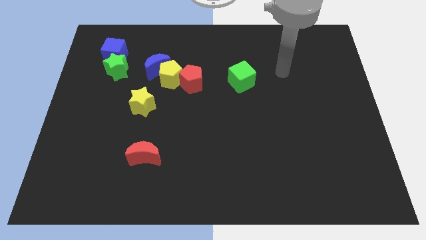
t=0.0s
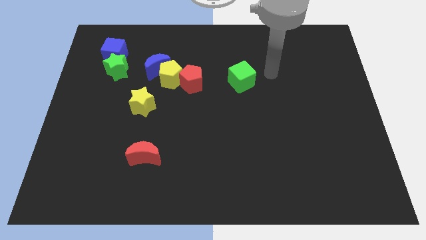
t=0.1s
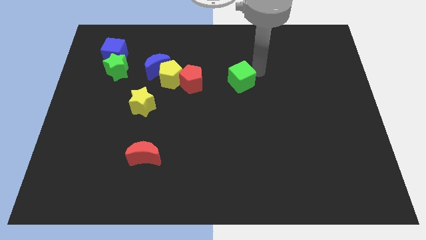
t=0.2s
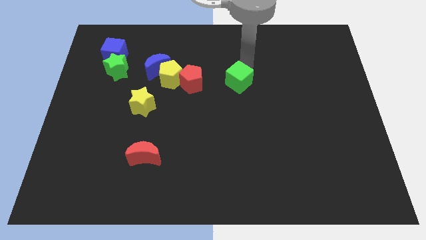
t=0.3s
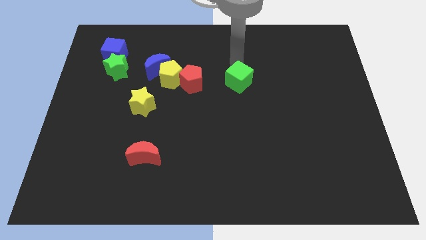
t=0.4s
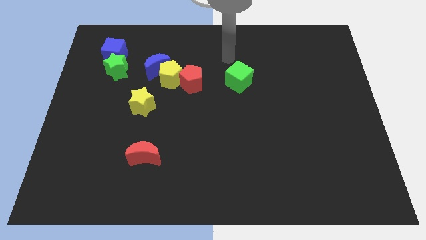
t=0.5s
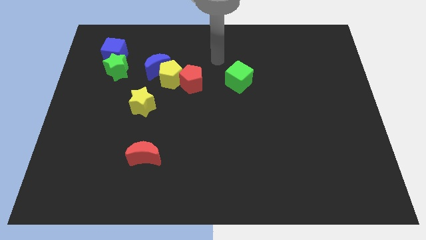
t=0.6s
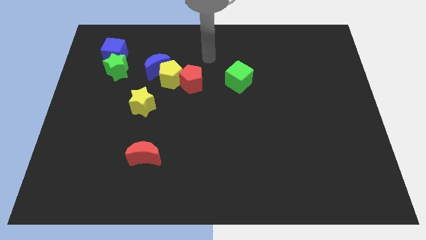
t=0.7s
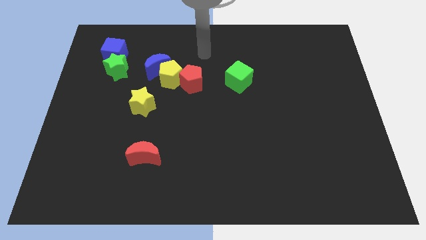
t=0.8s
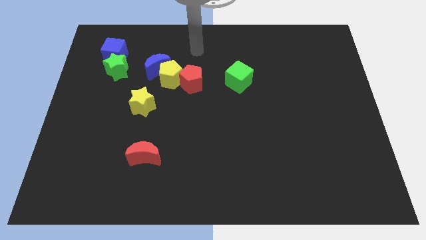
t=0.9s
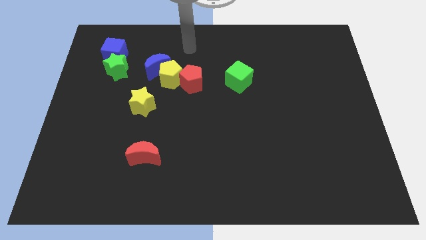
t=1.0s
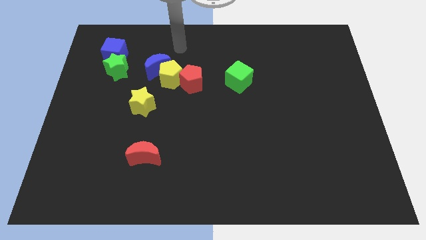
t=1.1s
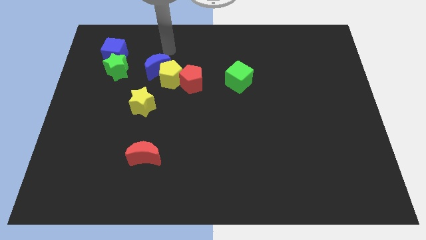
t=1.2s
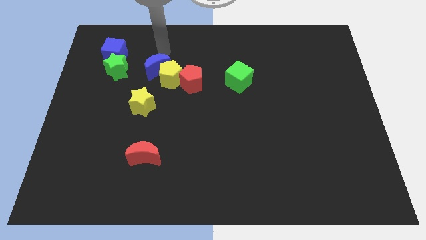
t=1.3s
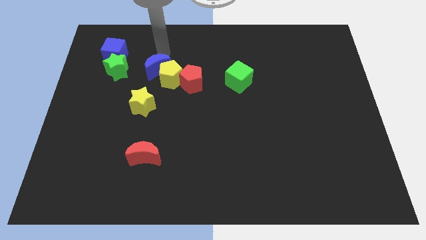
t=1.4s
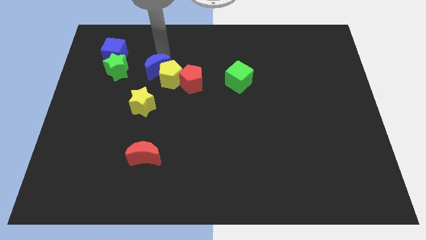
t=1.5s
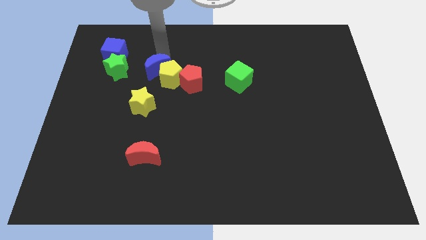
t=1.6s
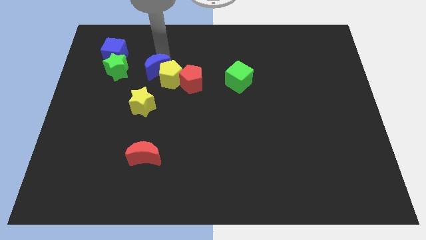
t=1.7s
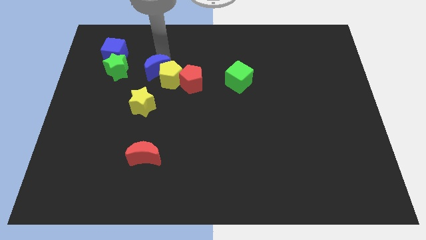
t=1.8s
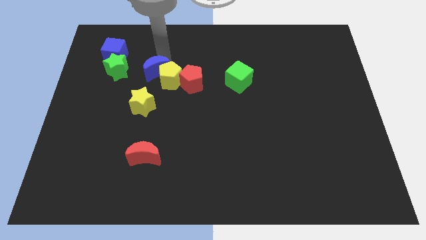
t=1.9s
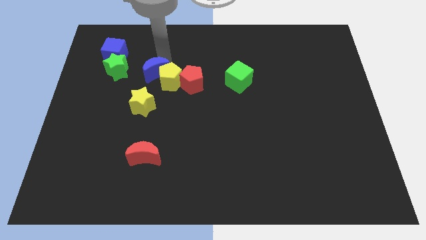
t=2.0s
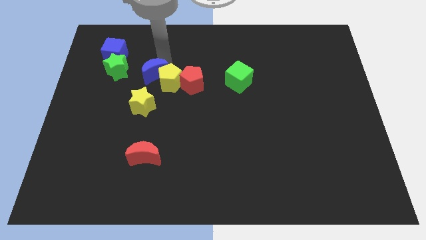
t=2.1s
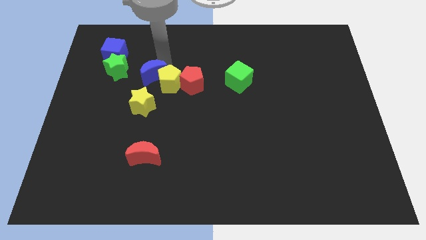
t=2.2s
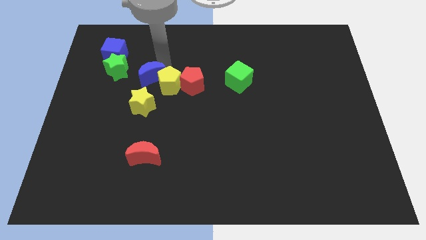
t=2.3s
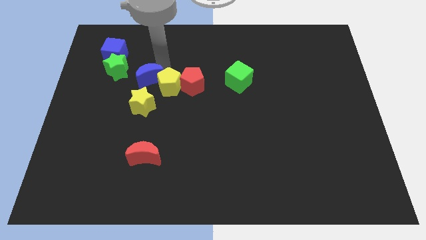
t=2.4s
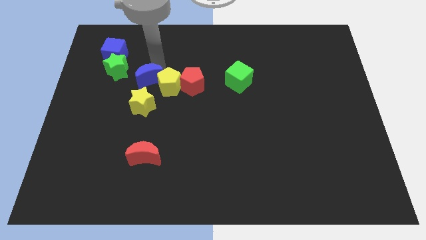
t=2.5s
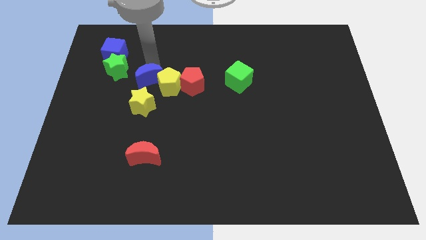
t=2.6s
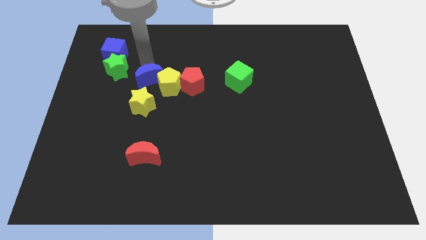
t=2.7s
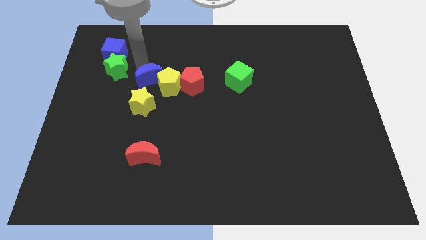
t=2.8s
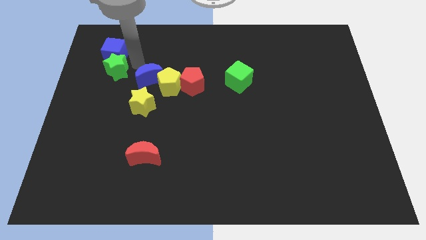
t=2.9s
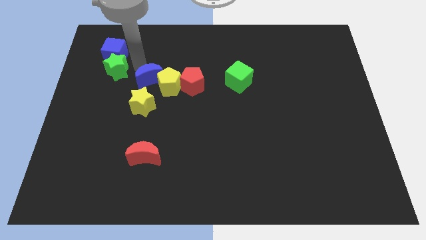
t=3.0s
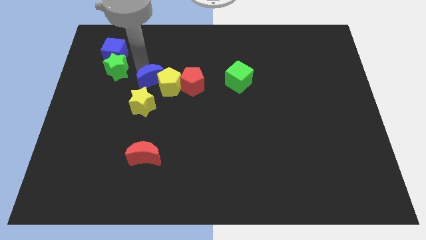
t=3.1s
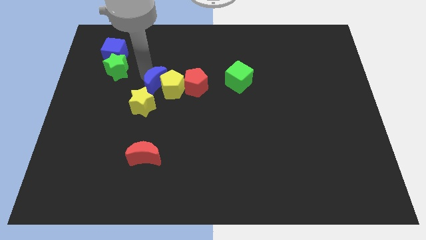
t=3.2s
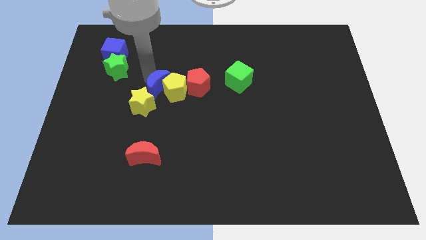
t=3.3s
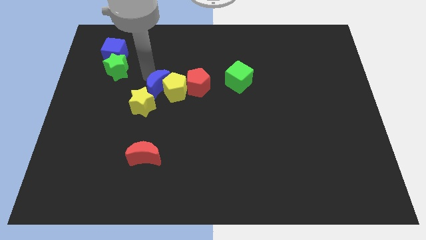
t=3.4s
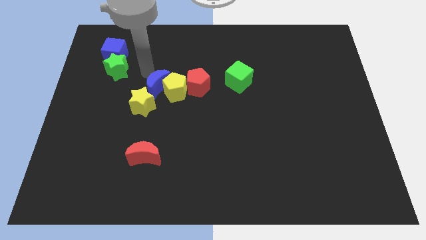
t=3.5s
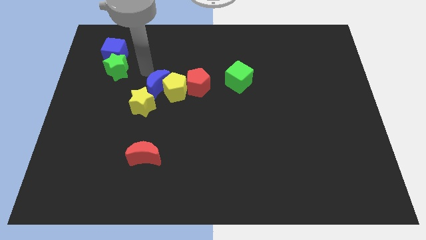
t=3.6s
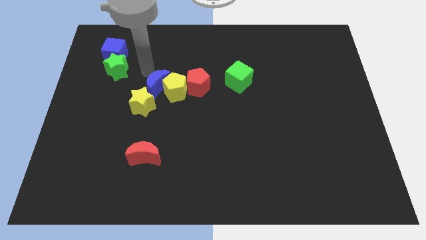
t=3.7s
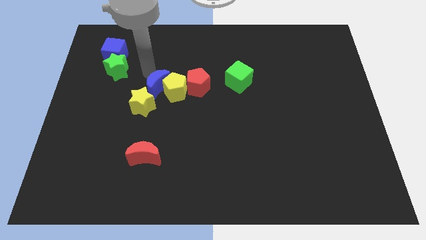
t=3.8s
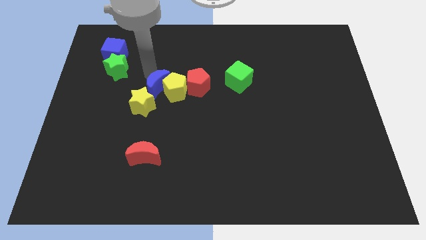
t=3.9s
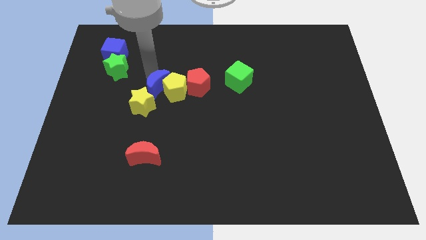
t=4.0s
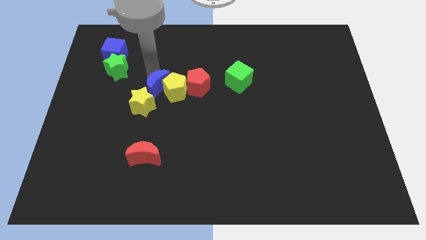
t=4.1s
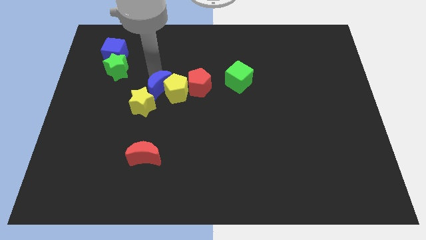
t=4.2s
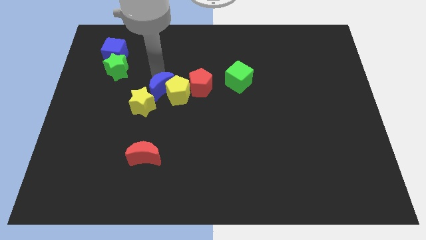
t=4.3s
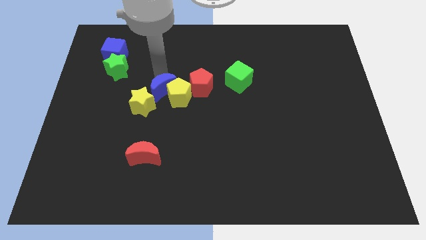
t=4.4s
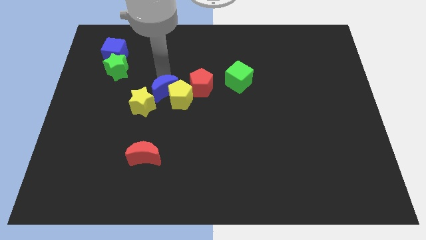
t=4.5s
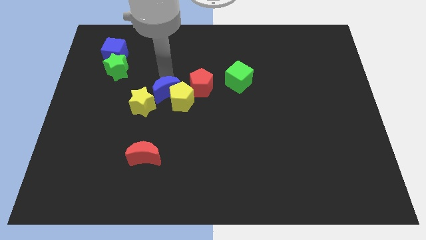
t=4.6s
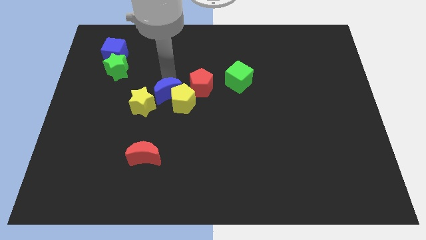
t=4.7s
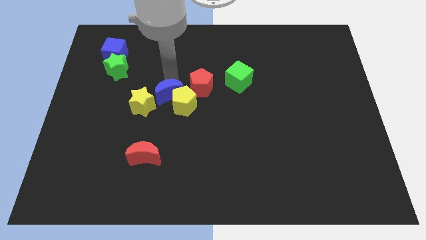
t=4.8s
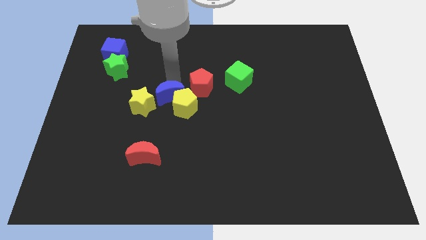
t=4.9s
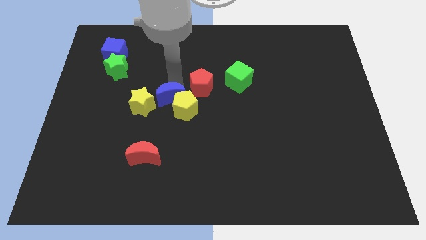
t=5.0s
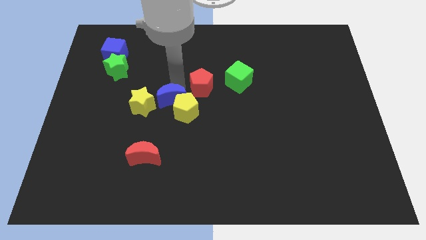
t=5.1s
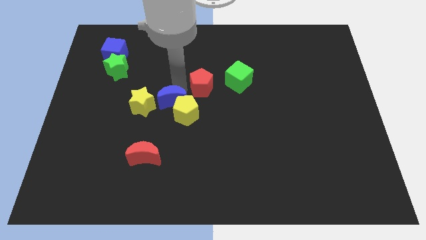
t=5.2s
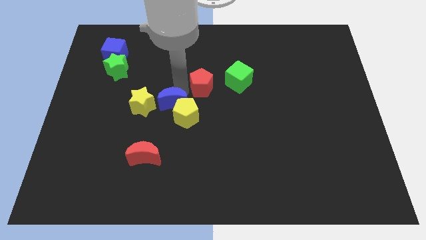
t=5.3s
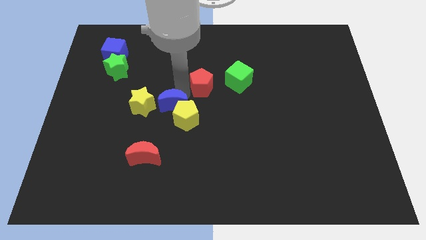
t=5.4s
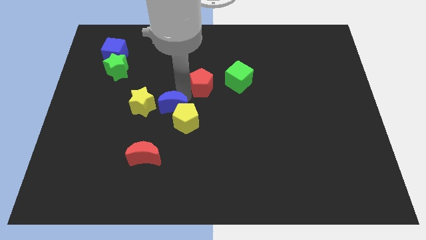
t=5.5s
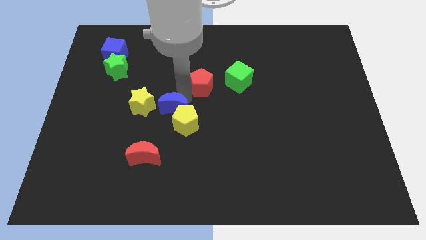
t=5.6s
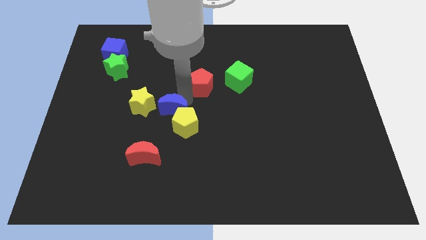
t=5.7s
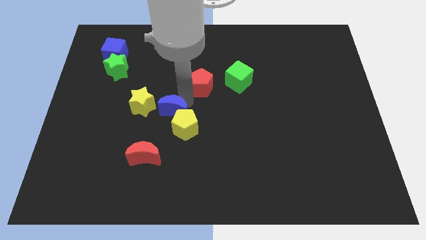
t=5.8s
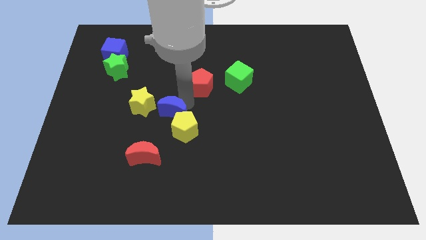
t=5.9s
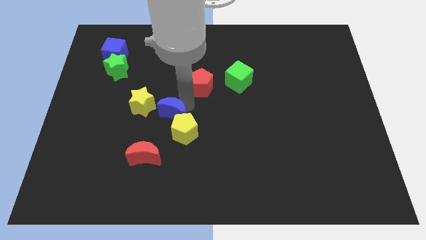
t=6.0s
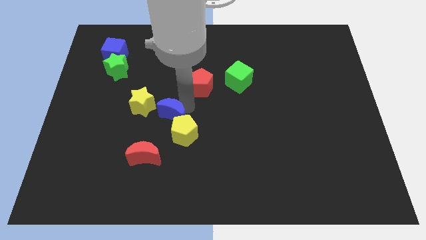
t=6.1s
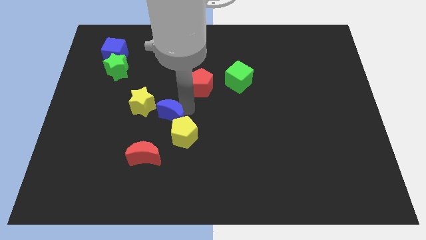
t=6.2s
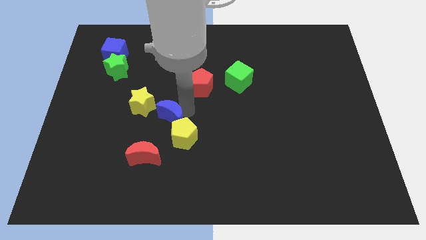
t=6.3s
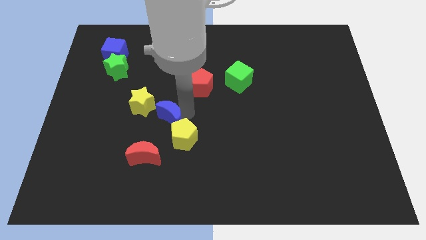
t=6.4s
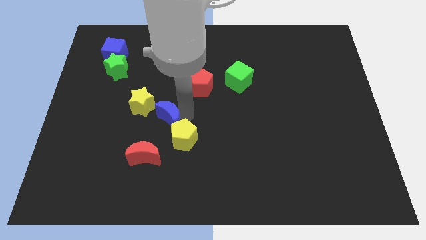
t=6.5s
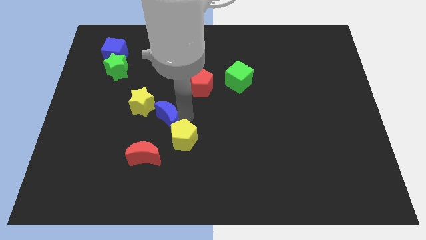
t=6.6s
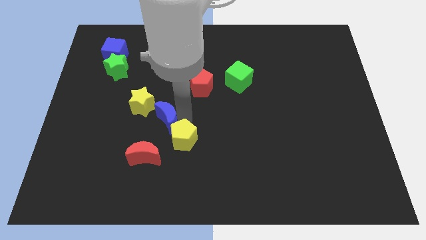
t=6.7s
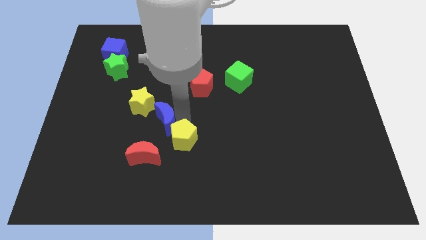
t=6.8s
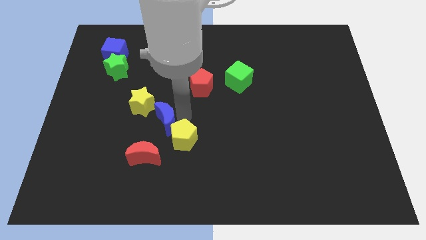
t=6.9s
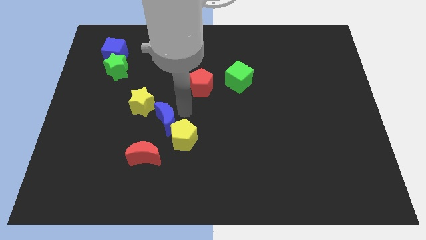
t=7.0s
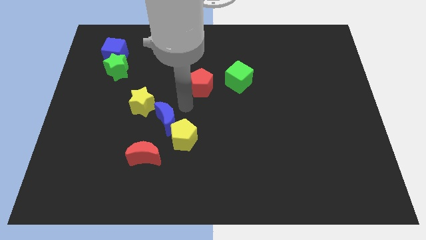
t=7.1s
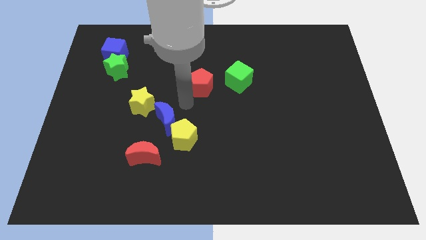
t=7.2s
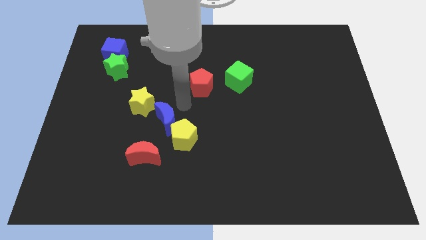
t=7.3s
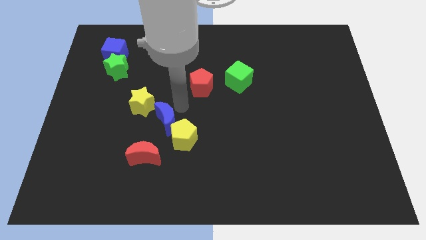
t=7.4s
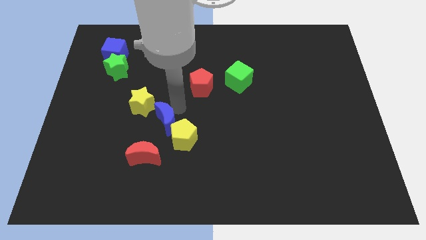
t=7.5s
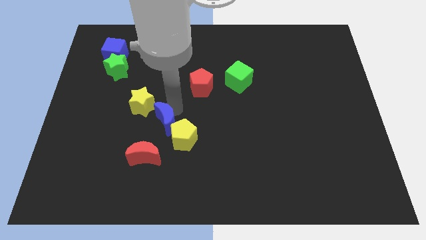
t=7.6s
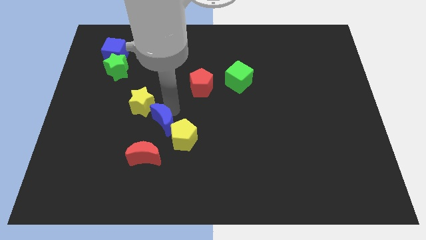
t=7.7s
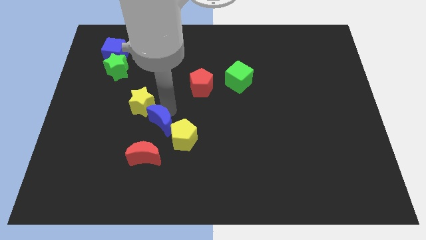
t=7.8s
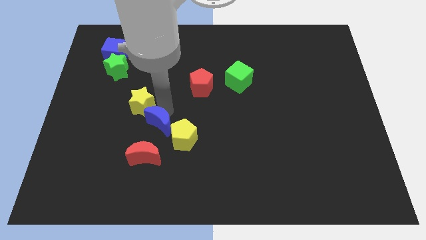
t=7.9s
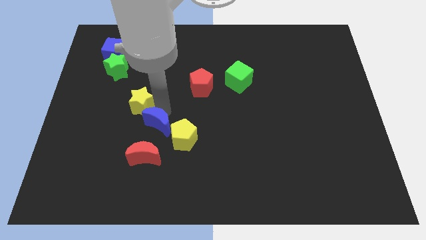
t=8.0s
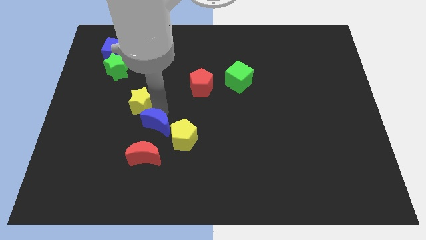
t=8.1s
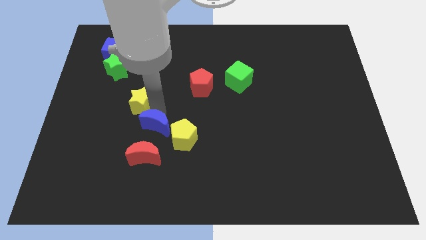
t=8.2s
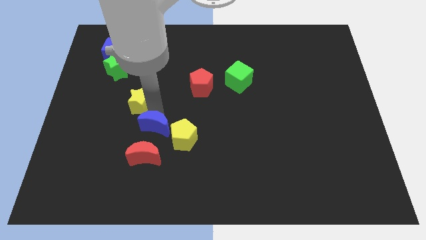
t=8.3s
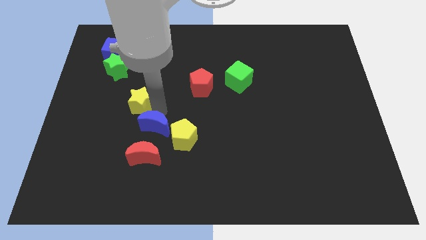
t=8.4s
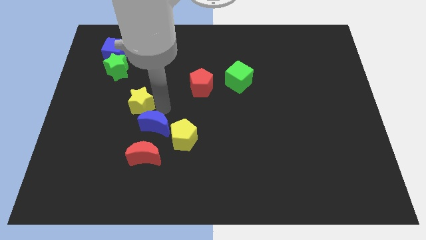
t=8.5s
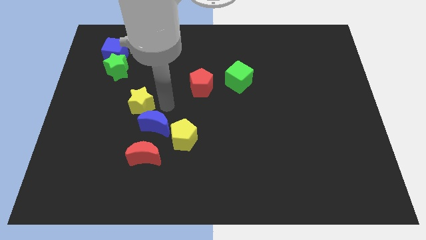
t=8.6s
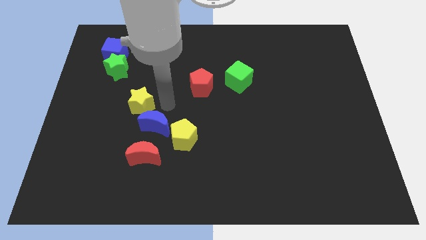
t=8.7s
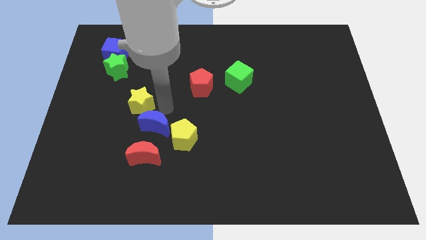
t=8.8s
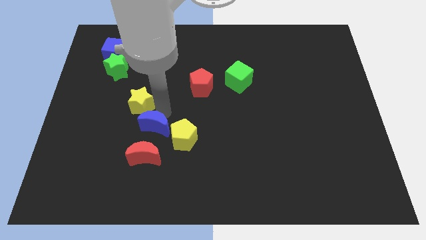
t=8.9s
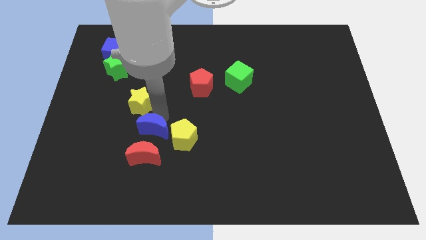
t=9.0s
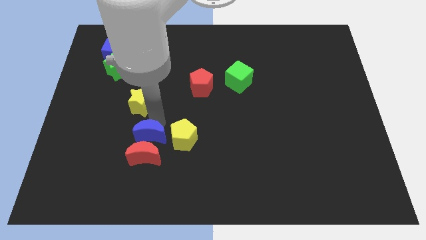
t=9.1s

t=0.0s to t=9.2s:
put the blue moon towards the red moon
